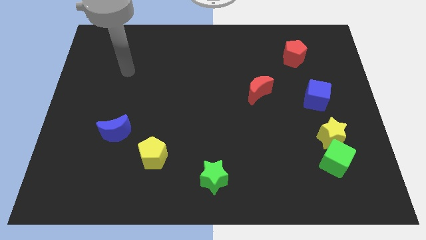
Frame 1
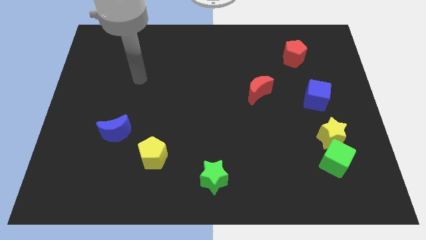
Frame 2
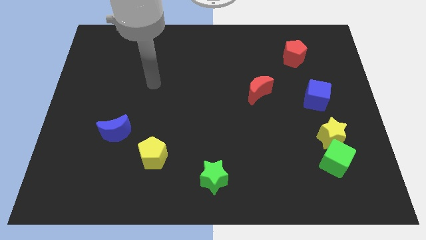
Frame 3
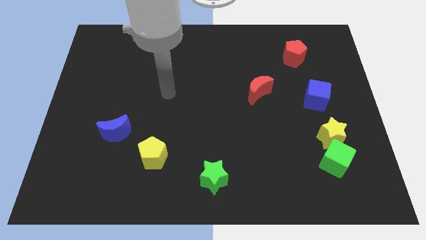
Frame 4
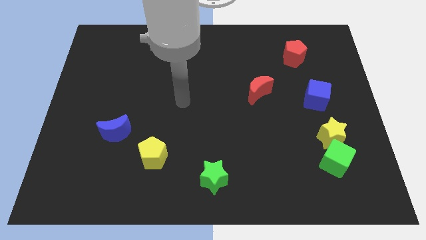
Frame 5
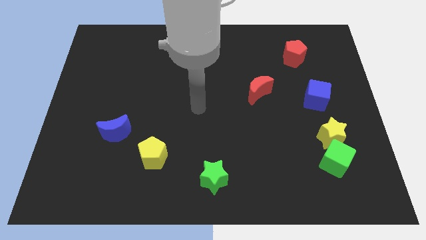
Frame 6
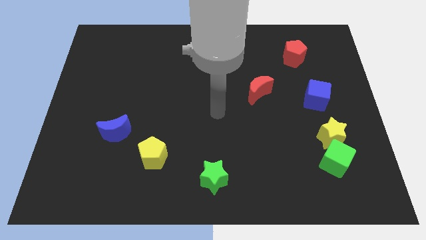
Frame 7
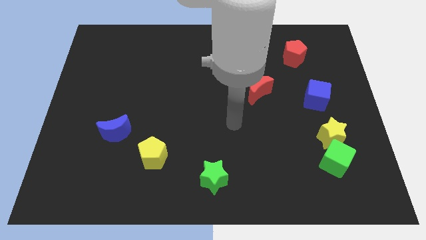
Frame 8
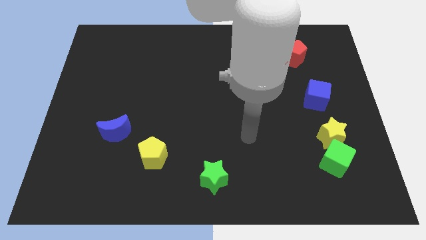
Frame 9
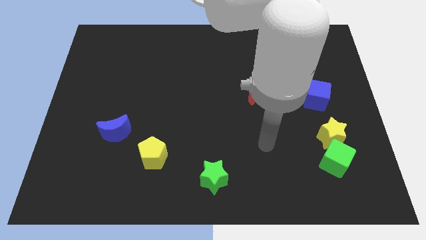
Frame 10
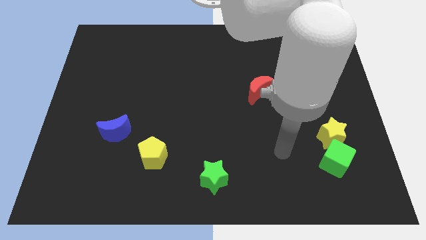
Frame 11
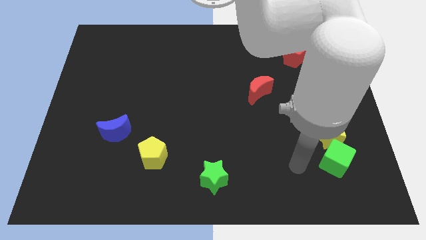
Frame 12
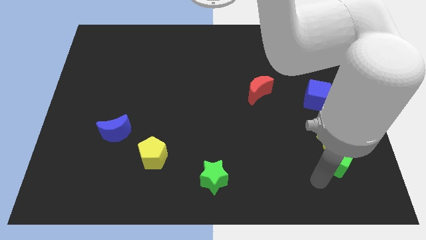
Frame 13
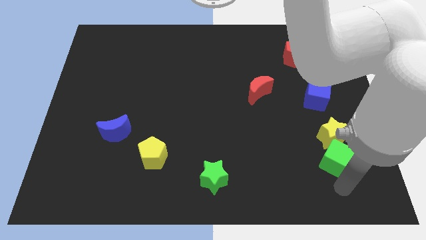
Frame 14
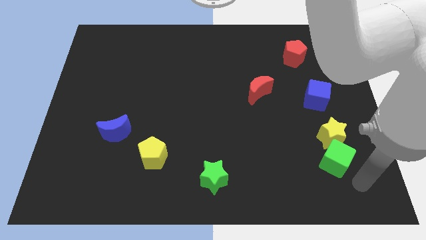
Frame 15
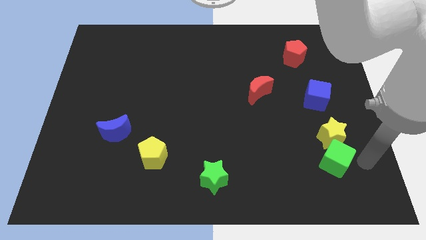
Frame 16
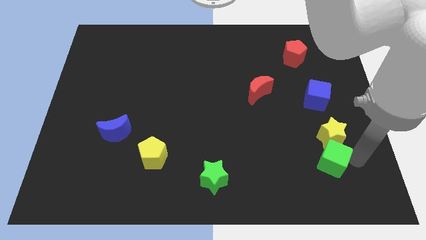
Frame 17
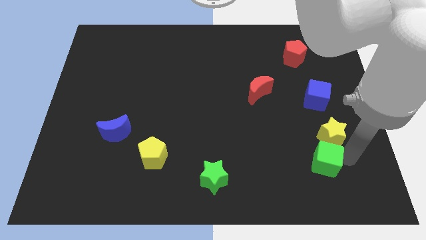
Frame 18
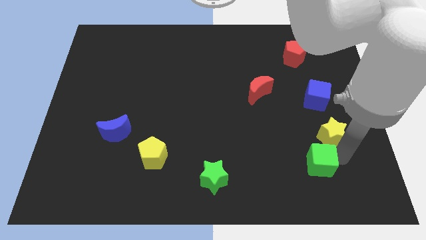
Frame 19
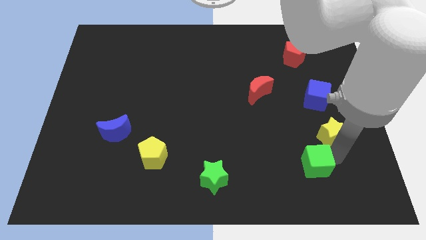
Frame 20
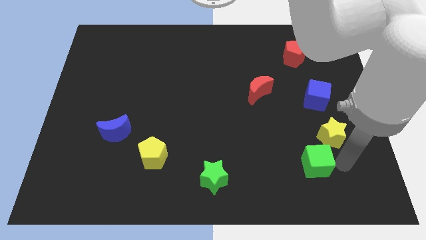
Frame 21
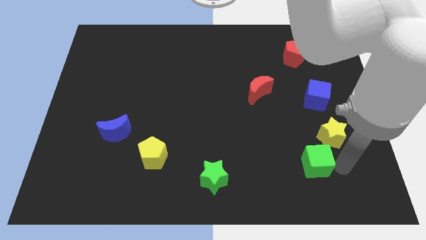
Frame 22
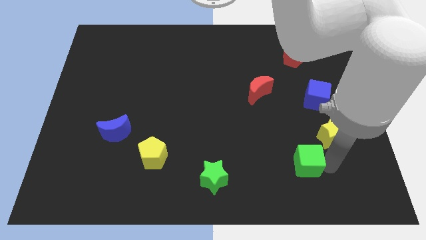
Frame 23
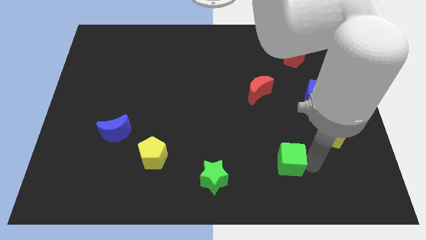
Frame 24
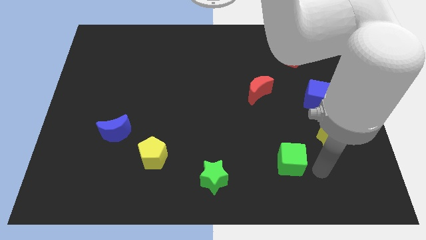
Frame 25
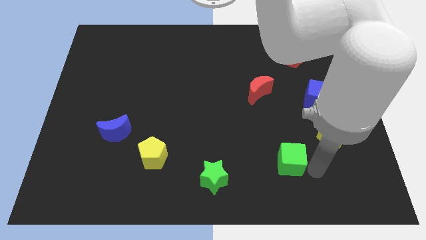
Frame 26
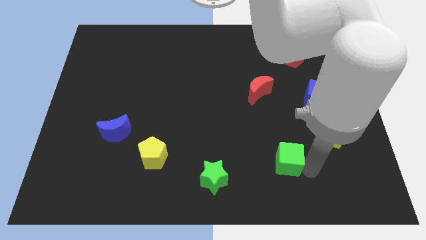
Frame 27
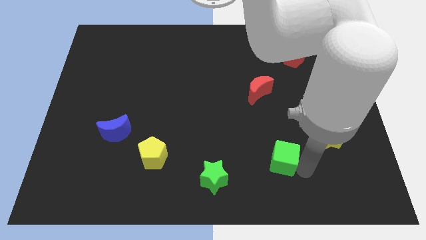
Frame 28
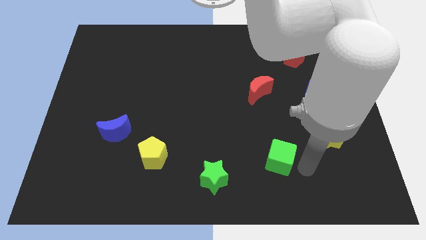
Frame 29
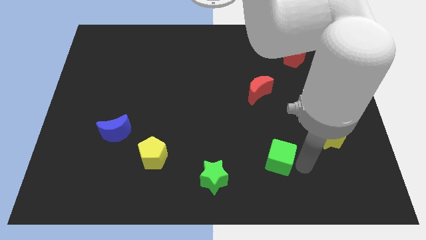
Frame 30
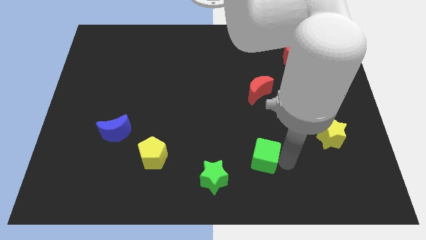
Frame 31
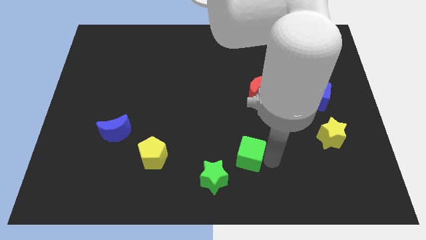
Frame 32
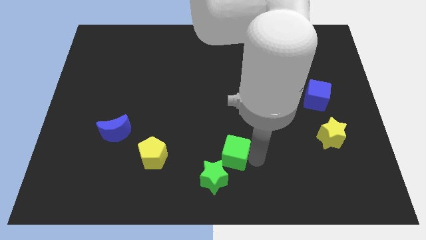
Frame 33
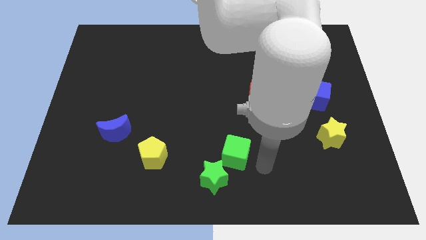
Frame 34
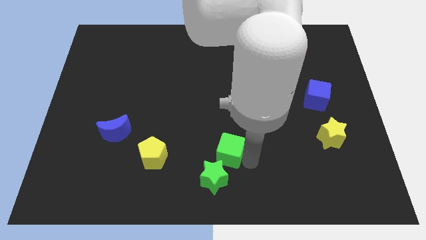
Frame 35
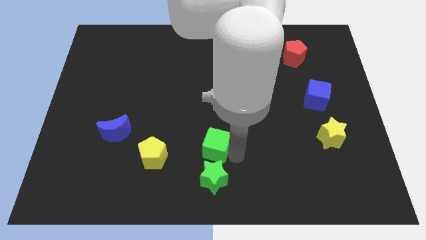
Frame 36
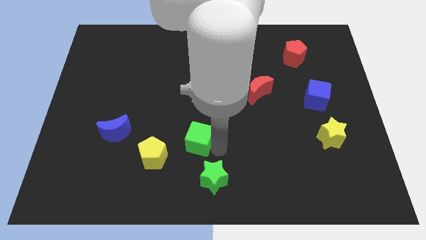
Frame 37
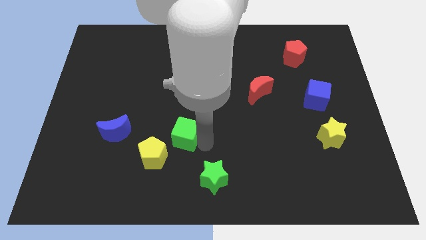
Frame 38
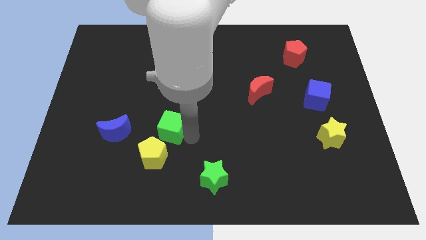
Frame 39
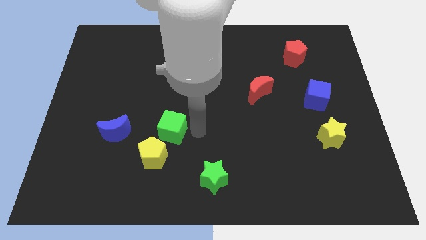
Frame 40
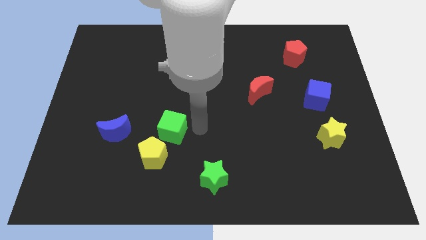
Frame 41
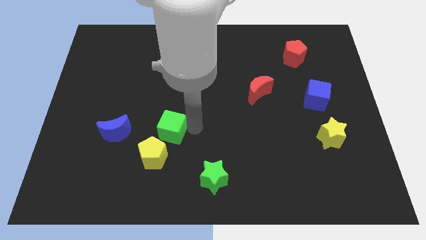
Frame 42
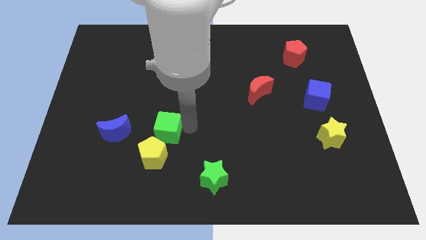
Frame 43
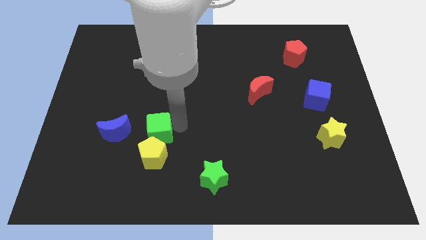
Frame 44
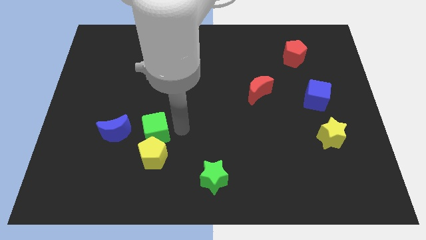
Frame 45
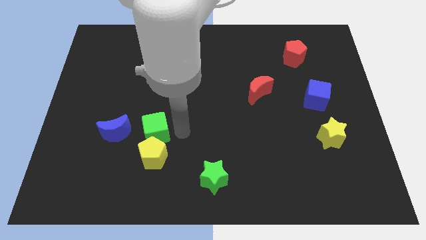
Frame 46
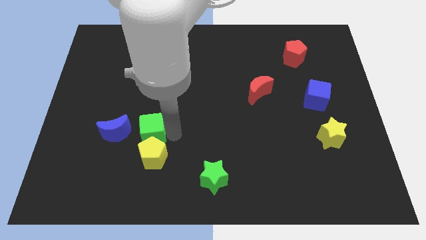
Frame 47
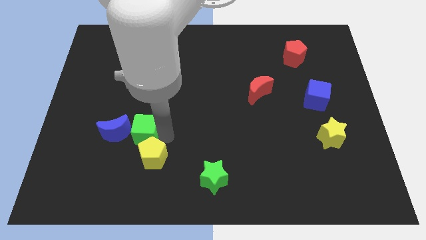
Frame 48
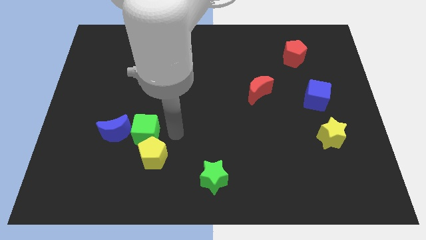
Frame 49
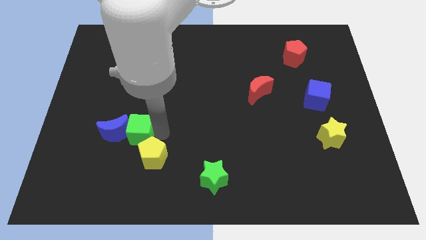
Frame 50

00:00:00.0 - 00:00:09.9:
put the green cube to the blue moon

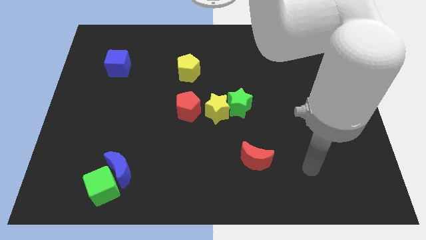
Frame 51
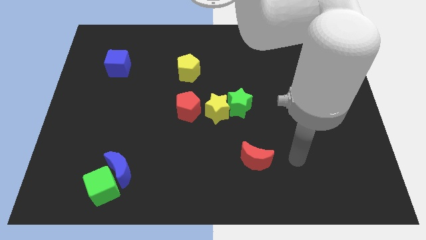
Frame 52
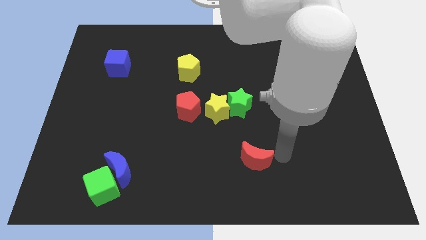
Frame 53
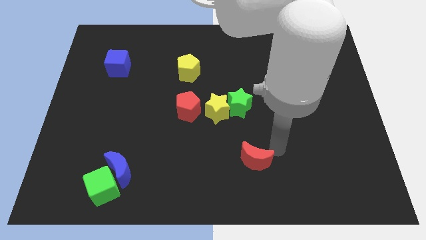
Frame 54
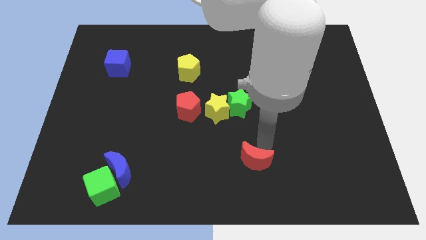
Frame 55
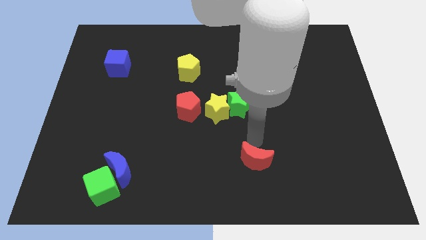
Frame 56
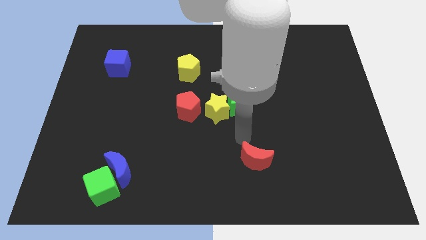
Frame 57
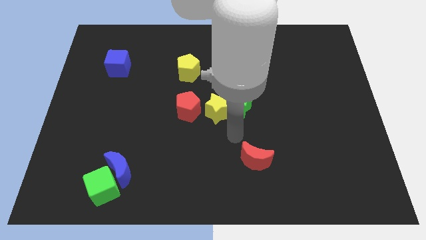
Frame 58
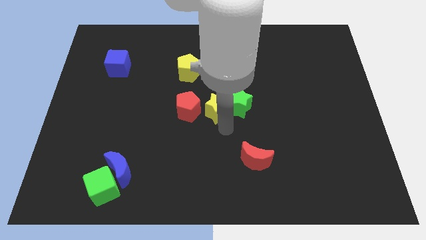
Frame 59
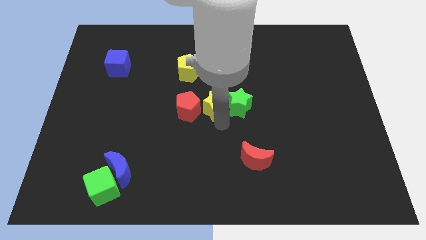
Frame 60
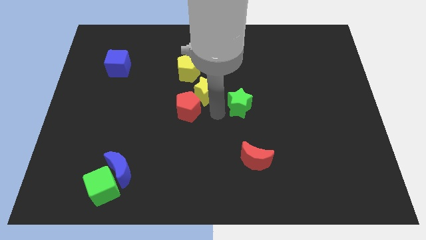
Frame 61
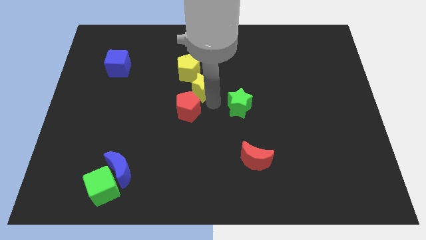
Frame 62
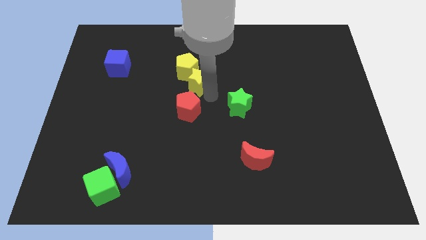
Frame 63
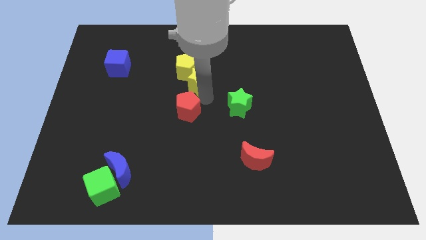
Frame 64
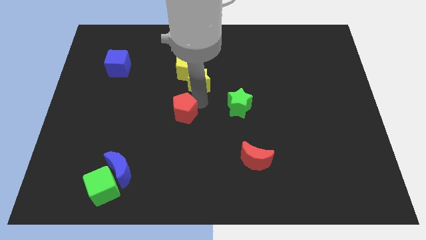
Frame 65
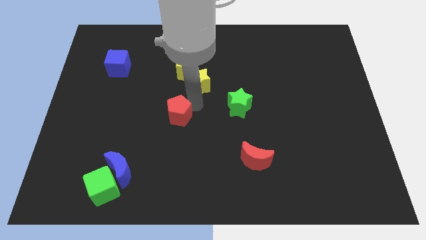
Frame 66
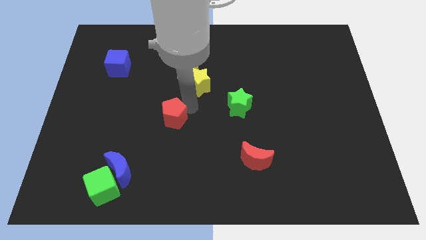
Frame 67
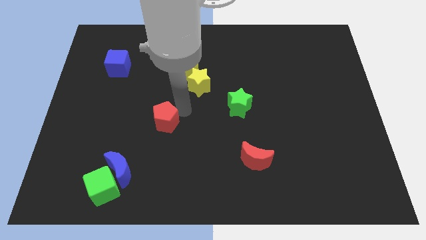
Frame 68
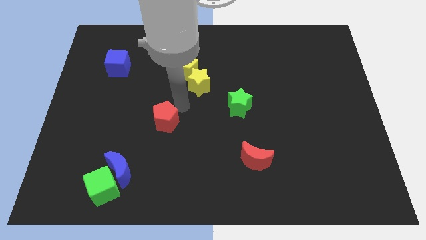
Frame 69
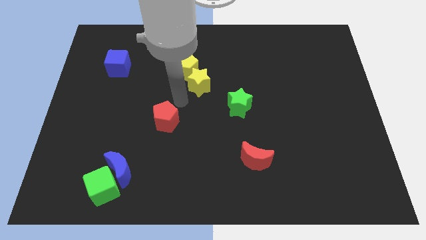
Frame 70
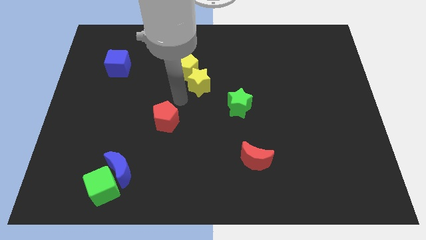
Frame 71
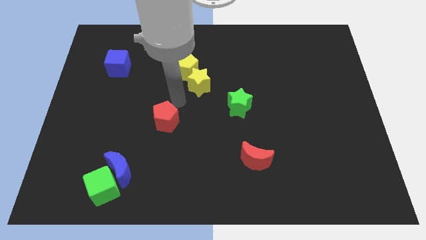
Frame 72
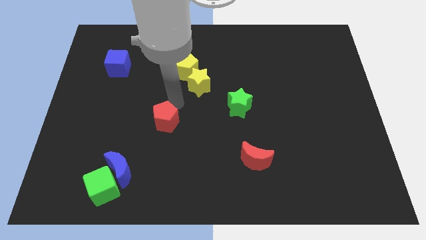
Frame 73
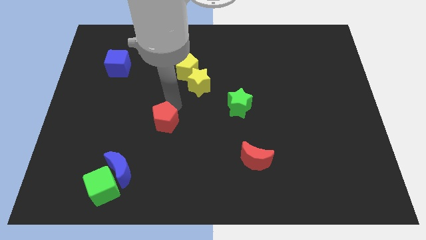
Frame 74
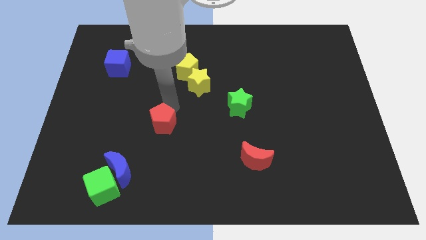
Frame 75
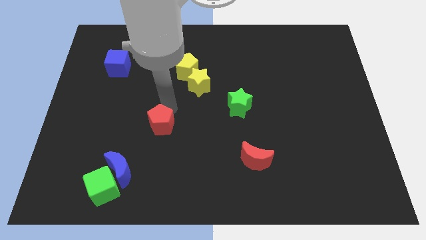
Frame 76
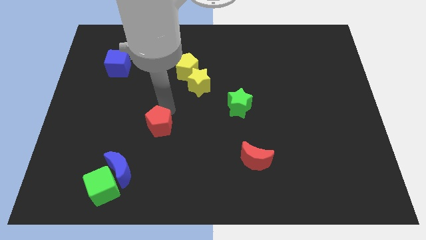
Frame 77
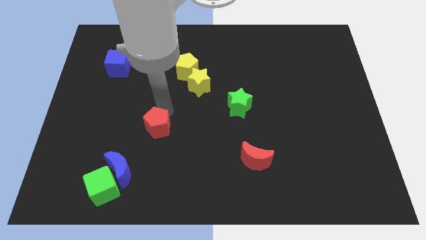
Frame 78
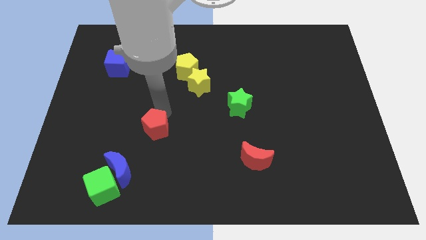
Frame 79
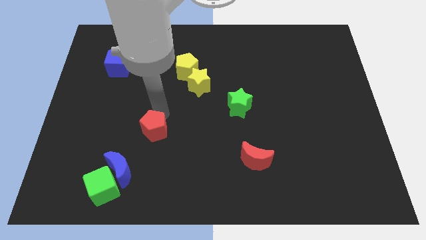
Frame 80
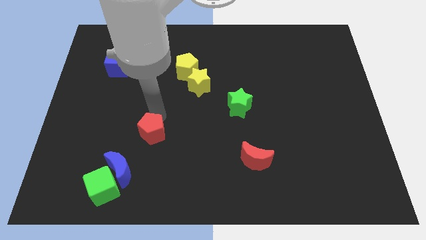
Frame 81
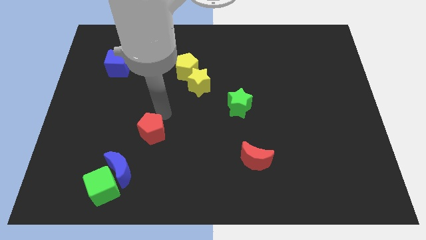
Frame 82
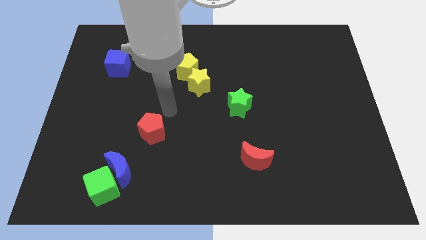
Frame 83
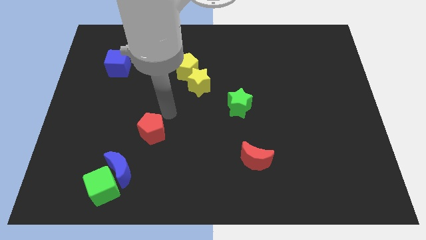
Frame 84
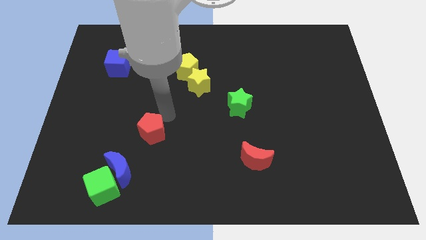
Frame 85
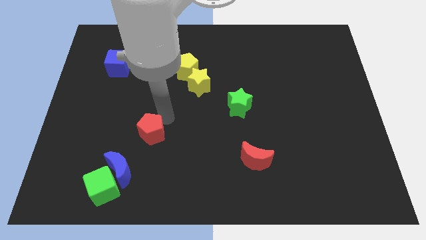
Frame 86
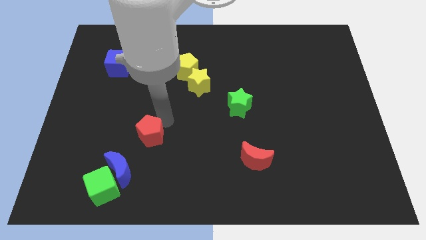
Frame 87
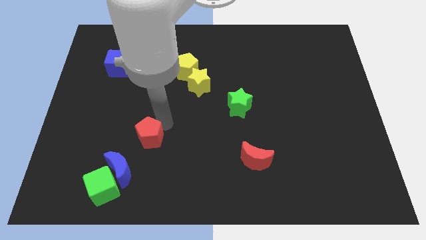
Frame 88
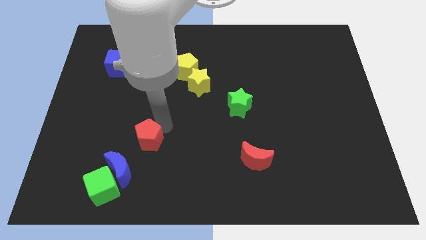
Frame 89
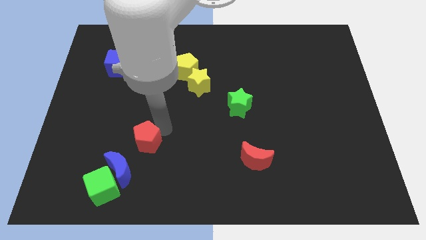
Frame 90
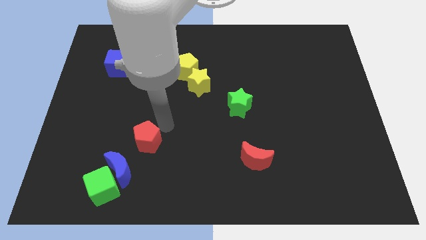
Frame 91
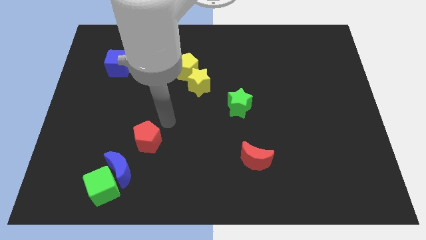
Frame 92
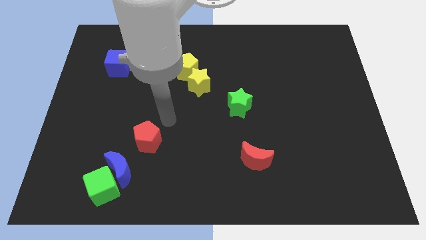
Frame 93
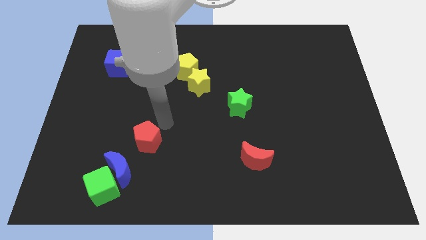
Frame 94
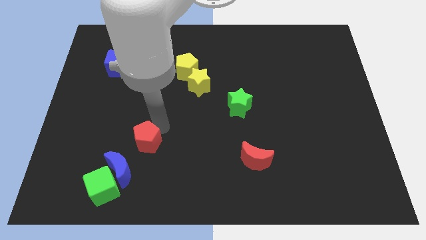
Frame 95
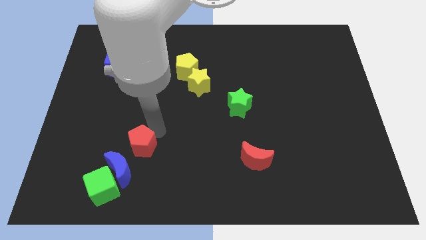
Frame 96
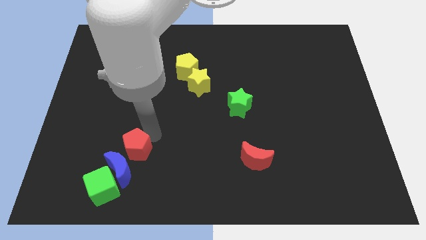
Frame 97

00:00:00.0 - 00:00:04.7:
slide the red pentagon next to the blue moon
